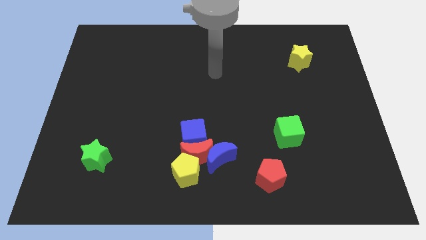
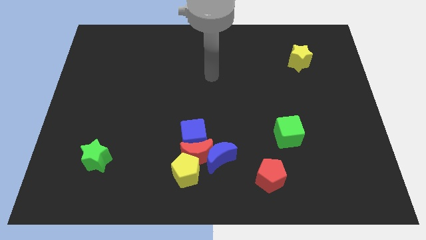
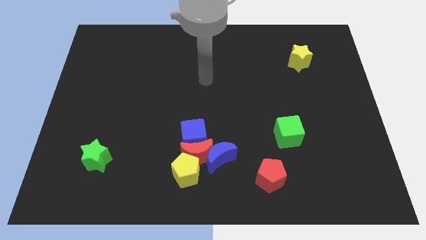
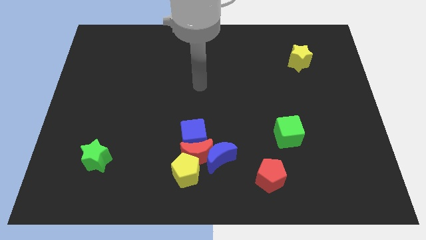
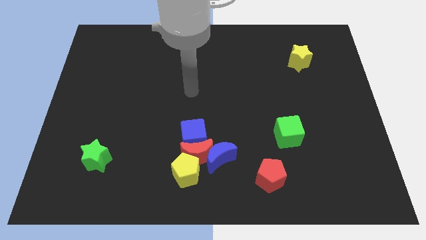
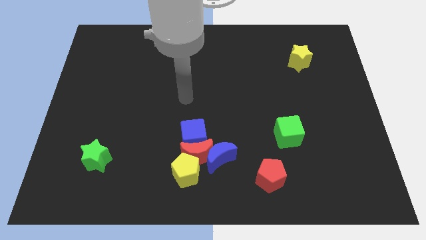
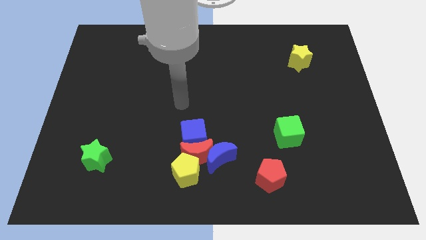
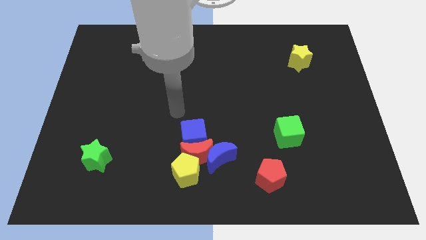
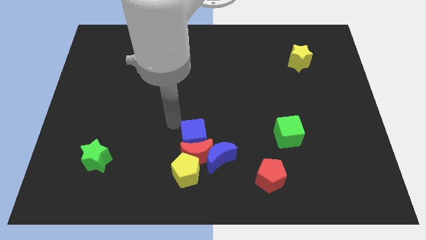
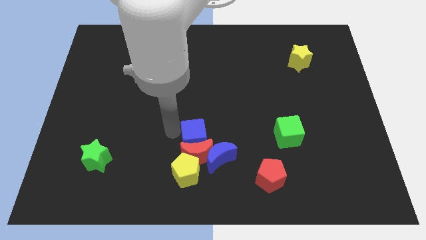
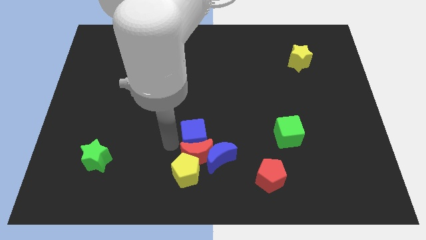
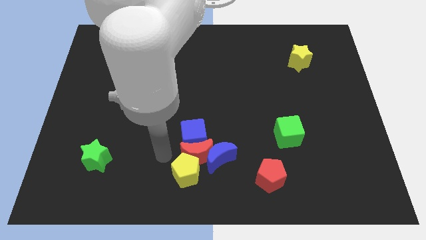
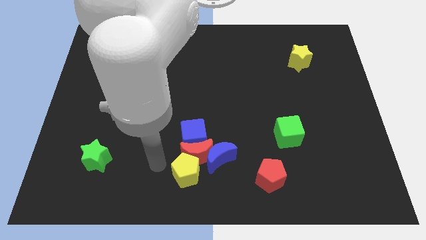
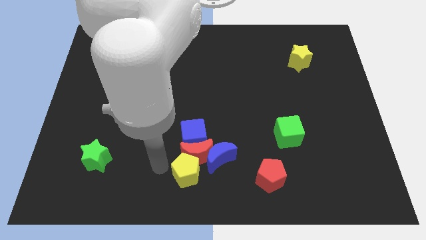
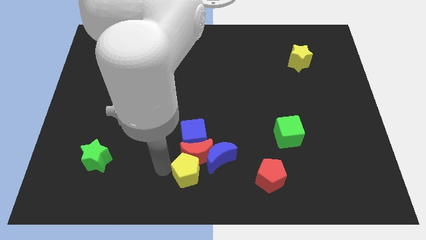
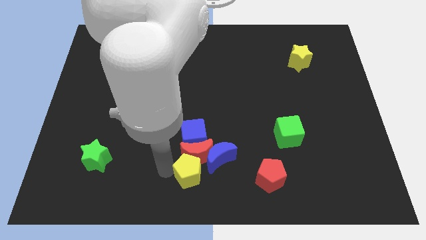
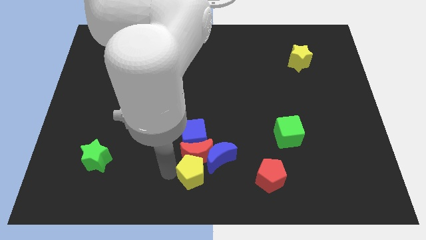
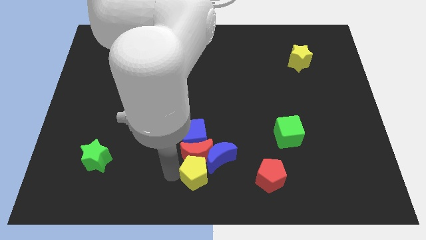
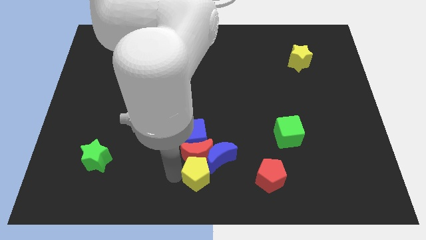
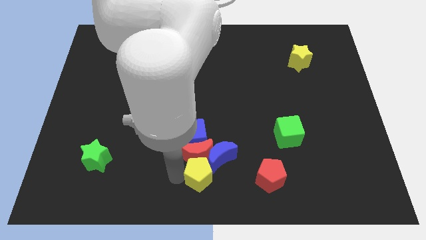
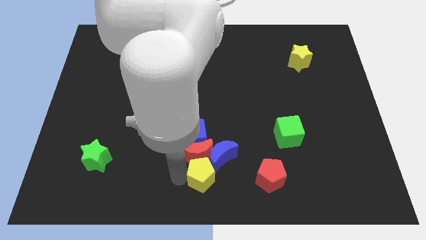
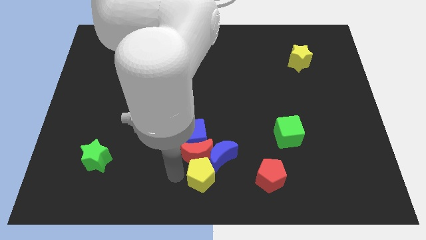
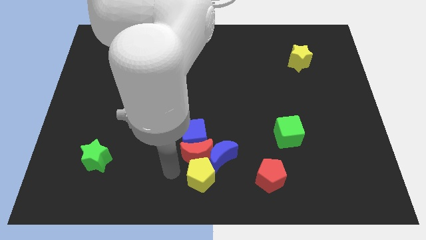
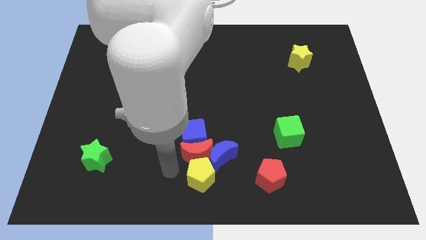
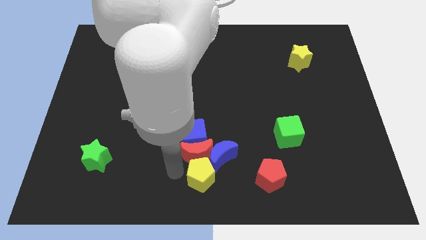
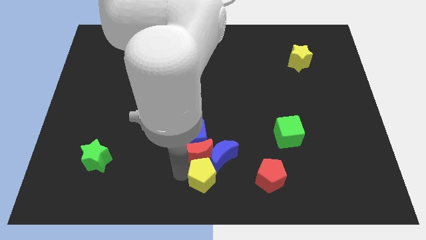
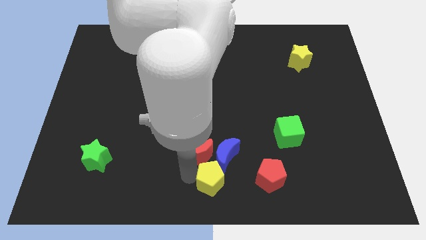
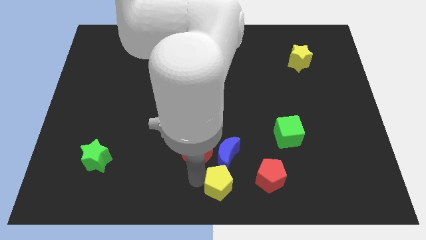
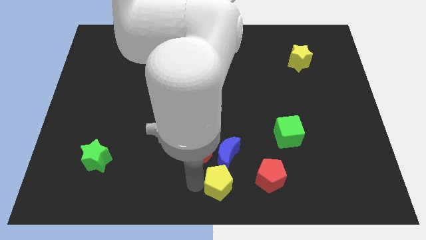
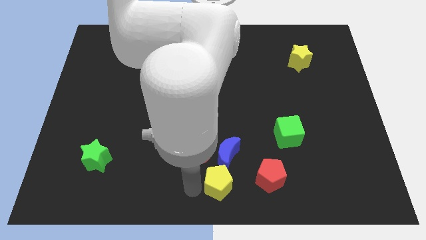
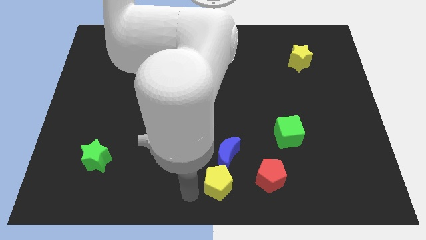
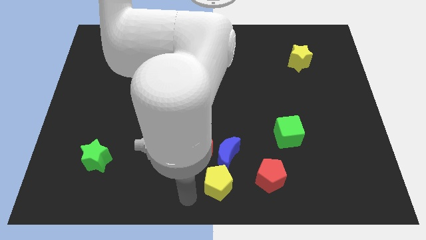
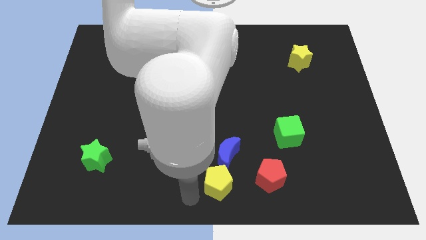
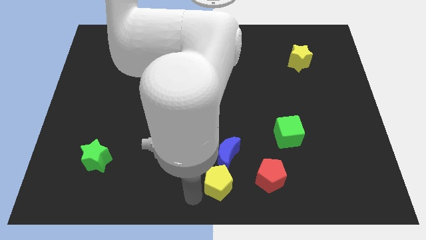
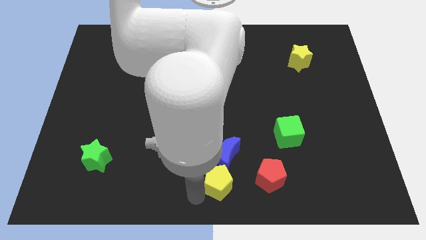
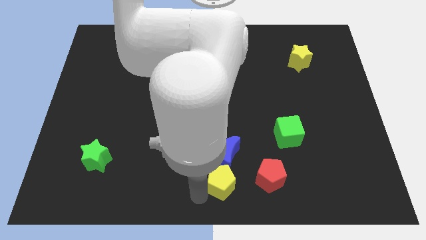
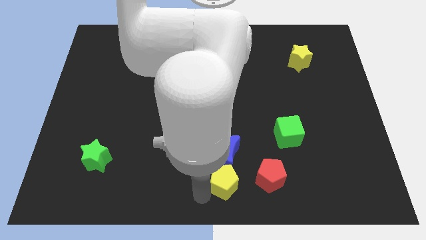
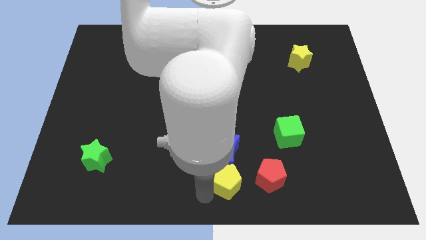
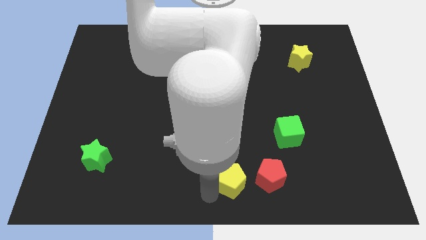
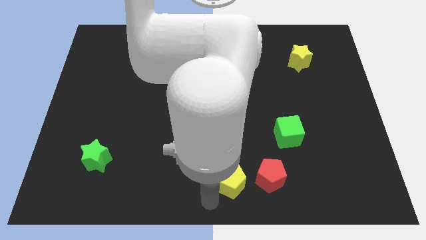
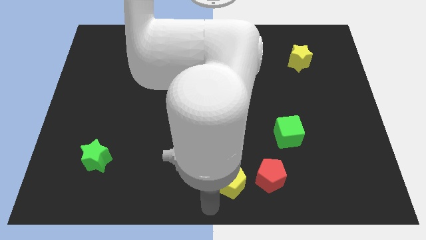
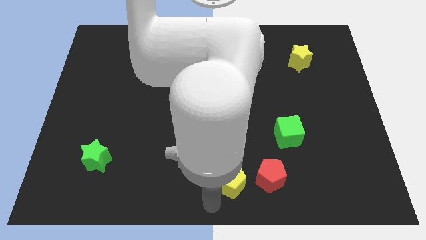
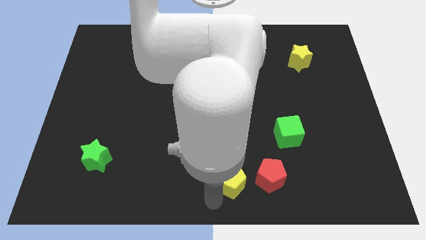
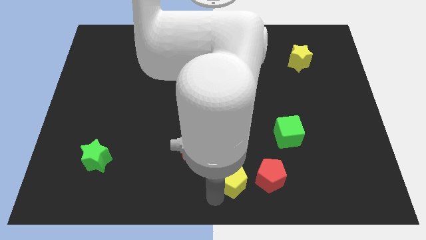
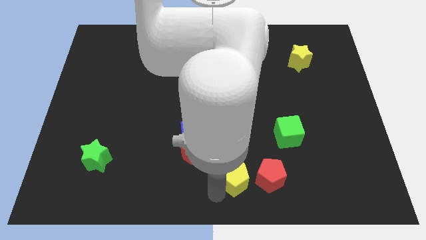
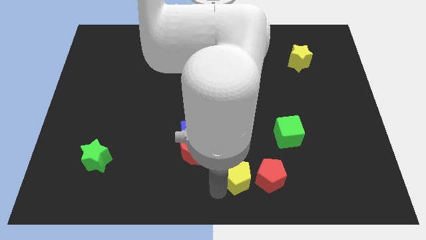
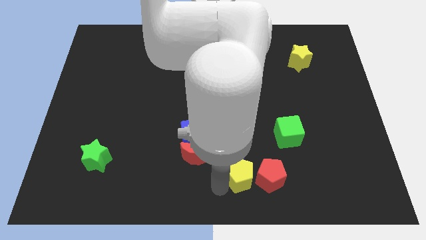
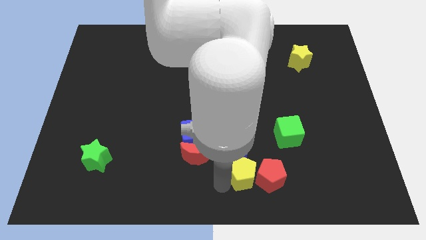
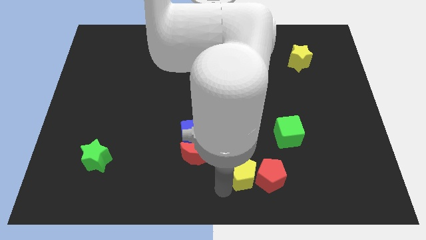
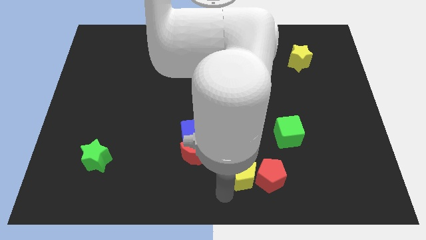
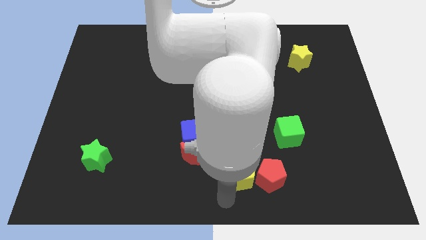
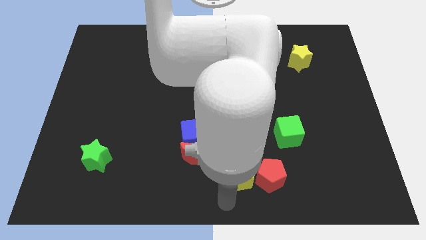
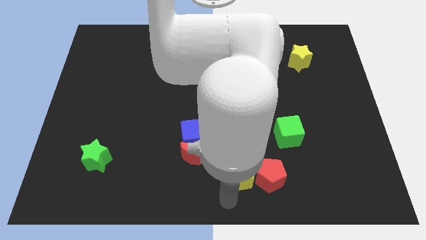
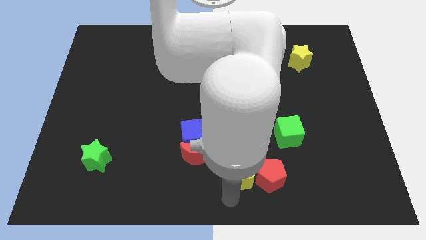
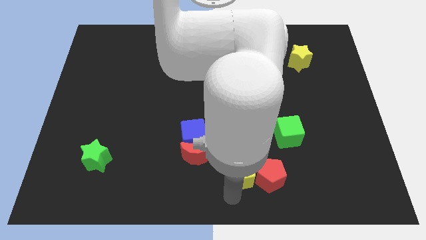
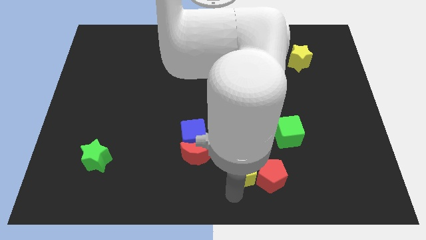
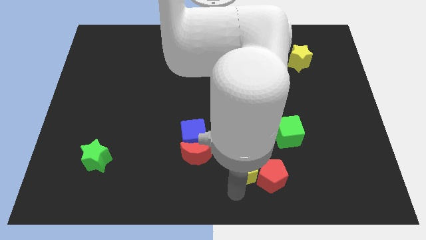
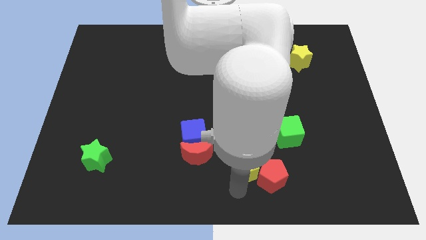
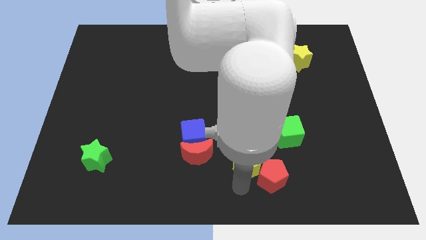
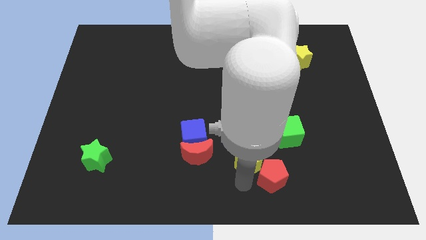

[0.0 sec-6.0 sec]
move the yellow pentagon to the top of the red pentagon

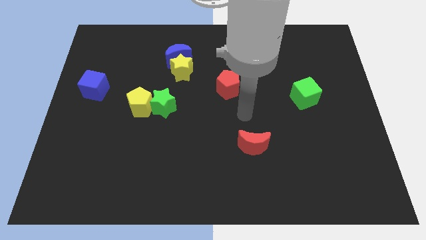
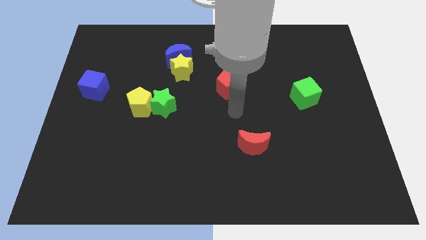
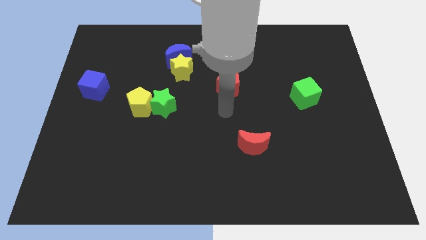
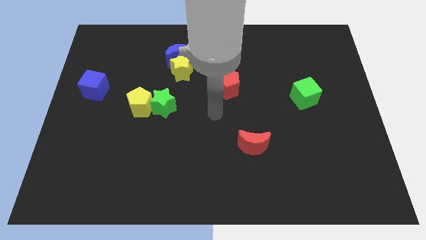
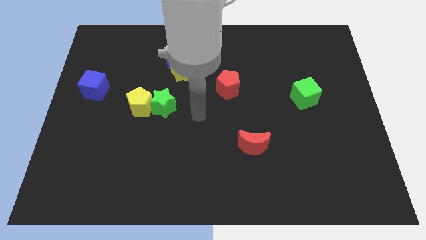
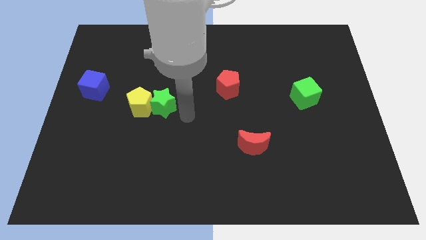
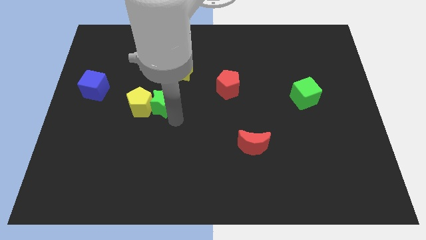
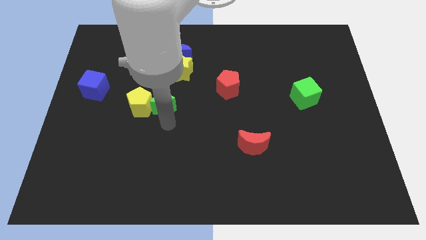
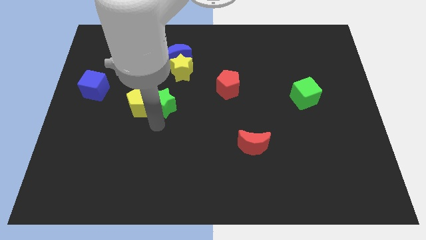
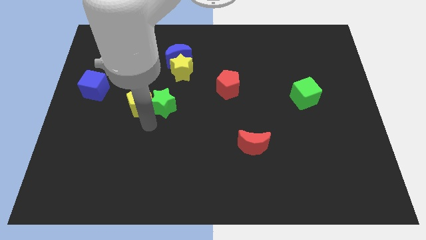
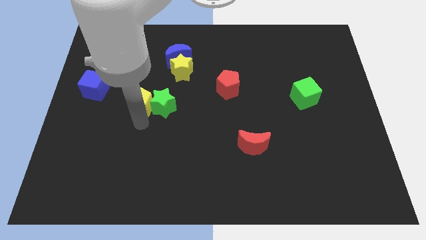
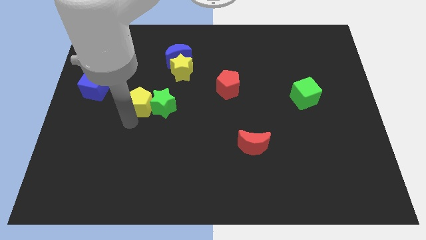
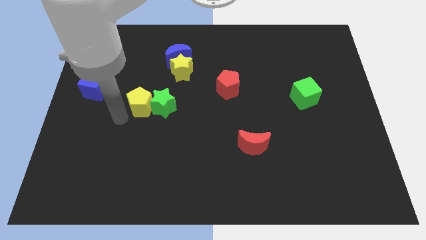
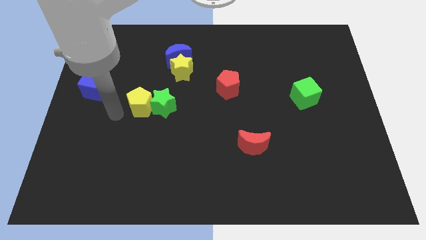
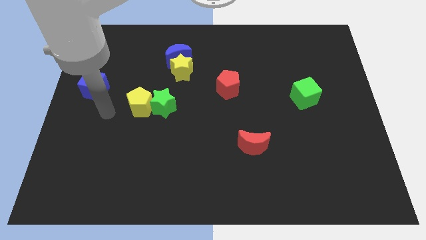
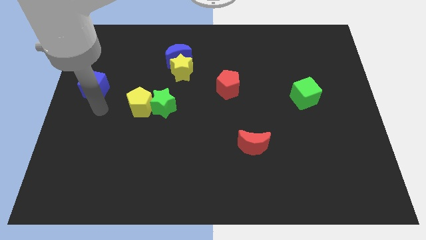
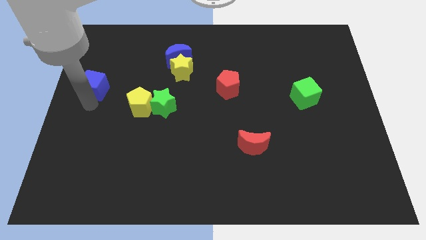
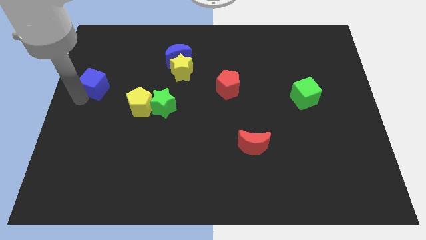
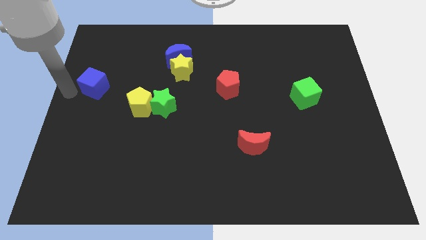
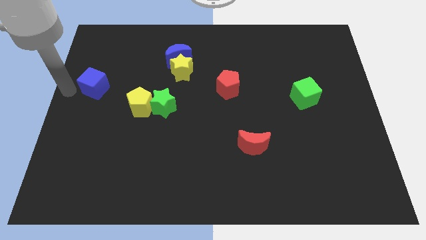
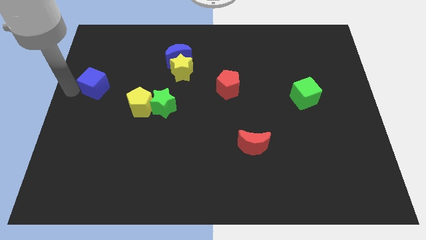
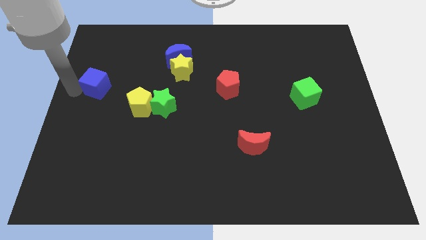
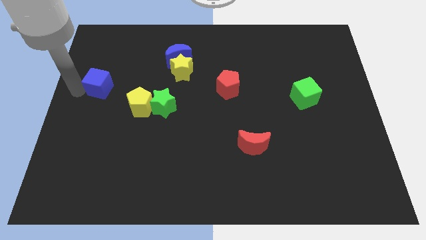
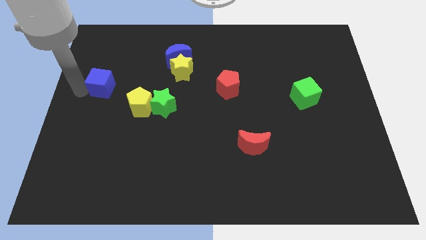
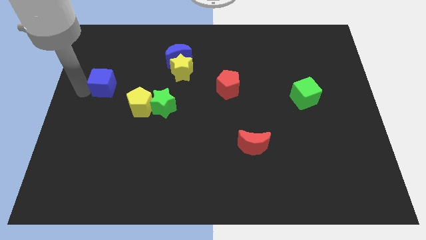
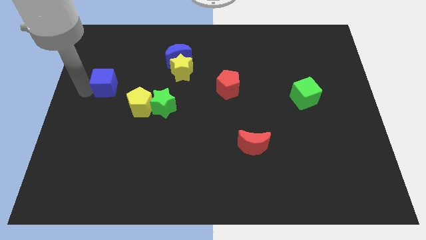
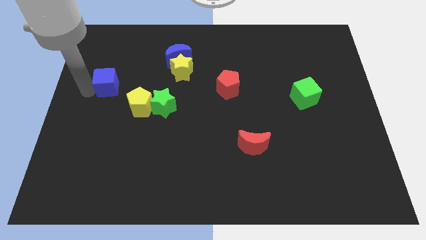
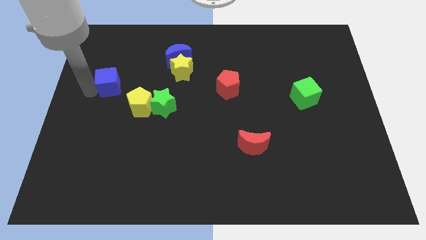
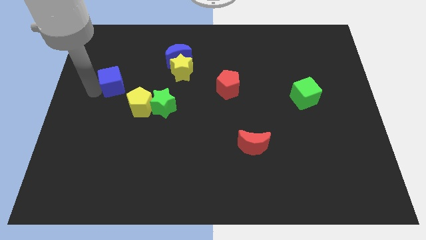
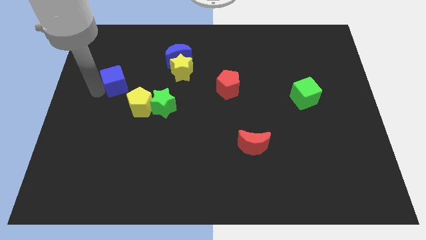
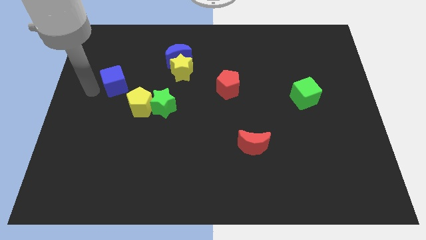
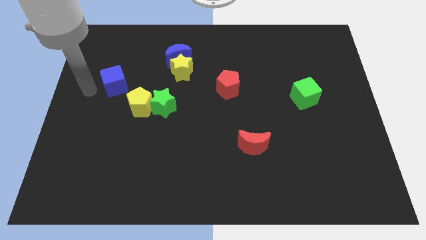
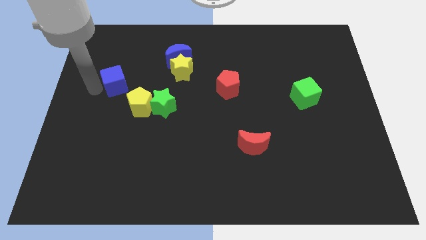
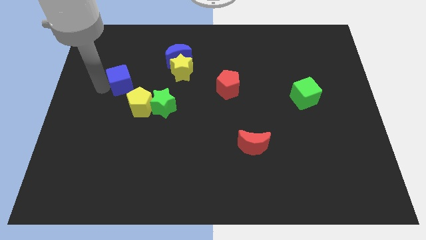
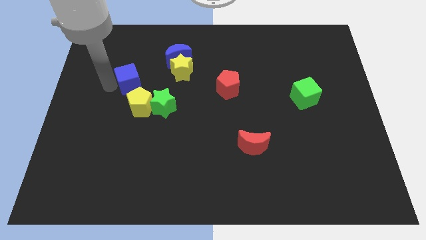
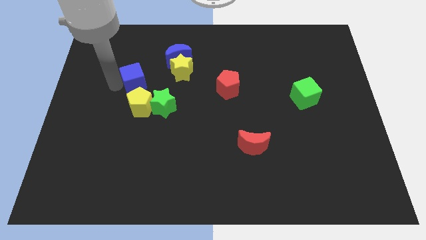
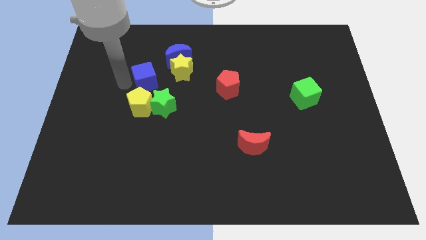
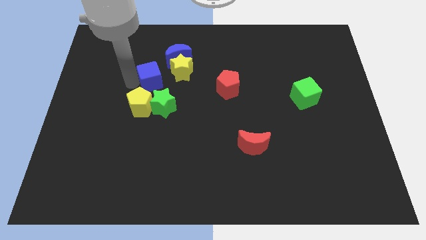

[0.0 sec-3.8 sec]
push the blue cube above the green star
